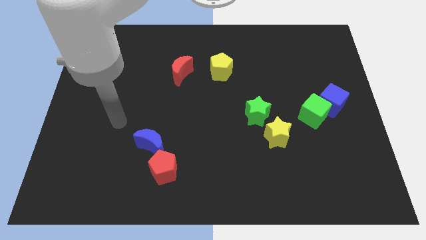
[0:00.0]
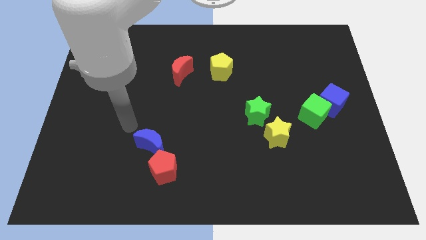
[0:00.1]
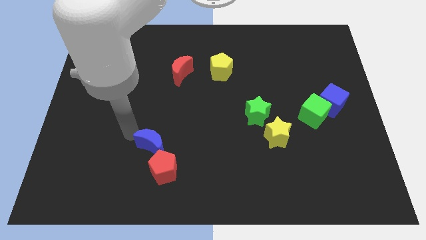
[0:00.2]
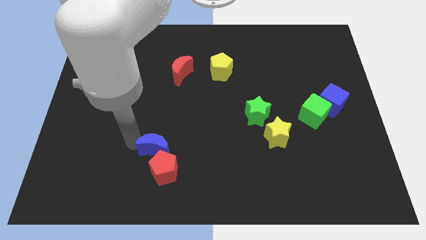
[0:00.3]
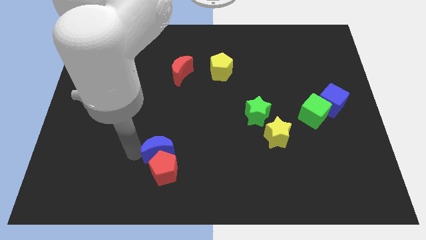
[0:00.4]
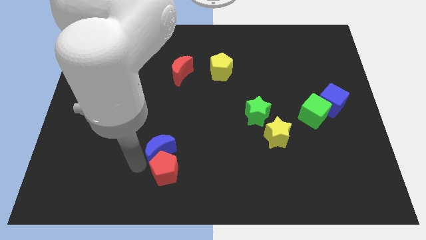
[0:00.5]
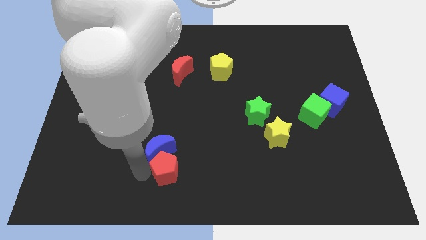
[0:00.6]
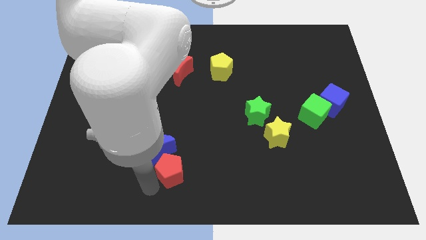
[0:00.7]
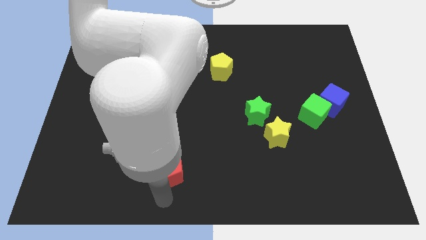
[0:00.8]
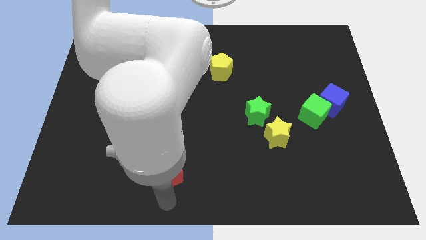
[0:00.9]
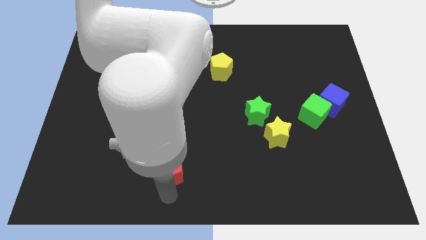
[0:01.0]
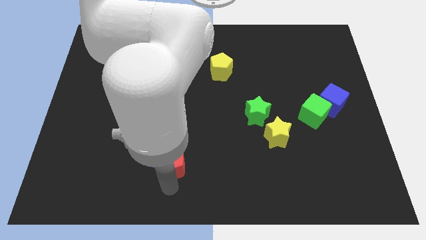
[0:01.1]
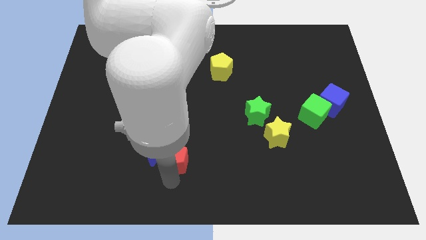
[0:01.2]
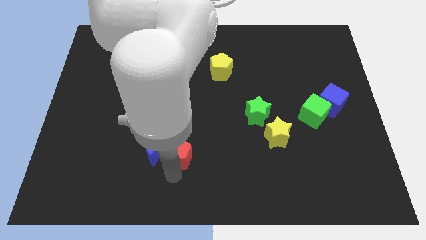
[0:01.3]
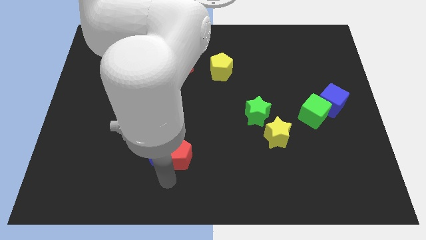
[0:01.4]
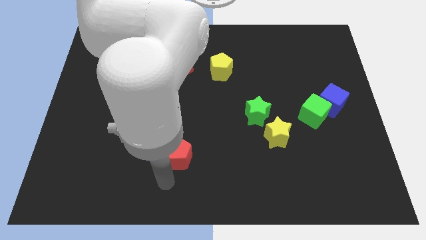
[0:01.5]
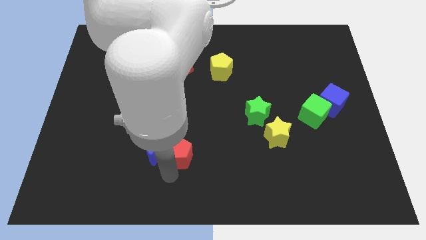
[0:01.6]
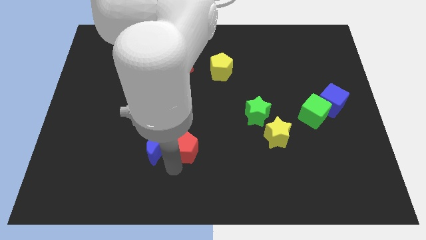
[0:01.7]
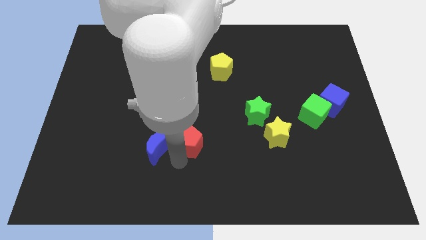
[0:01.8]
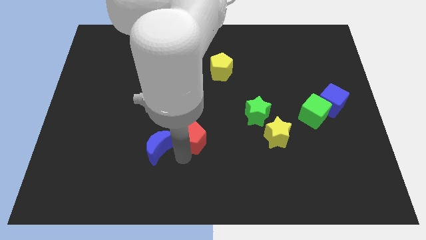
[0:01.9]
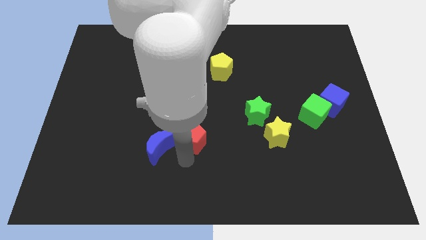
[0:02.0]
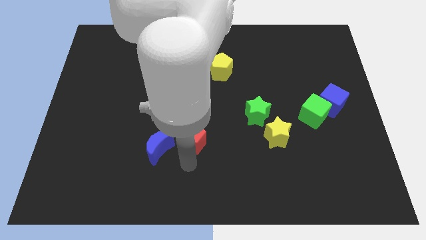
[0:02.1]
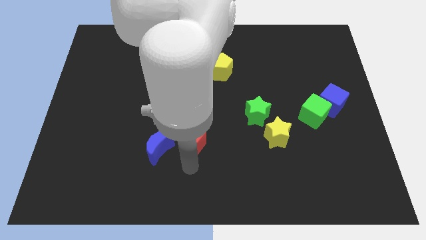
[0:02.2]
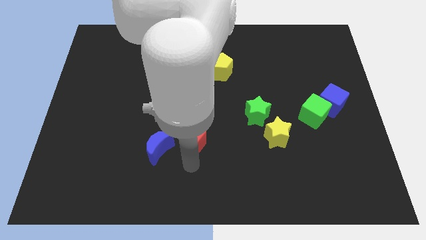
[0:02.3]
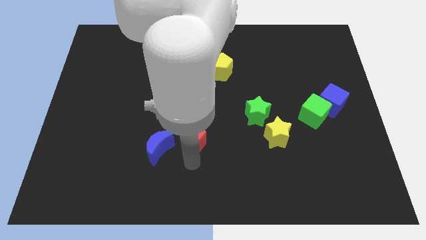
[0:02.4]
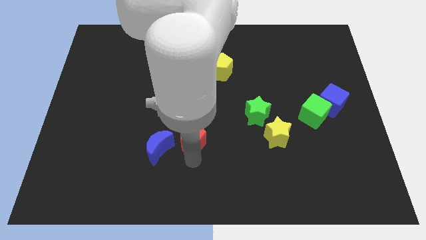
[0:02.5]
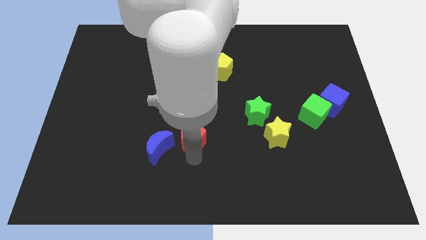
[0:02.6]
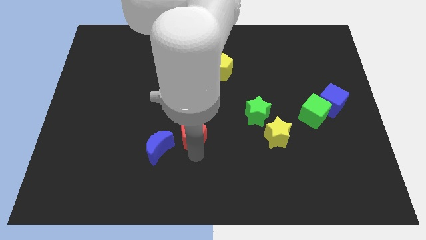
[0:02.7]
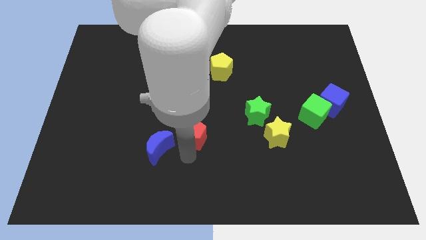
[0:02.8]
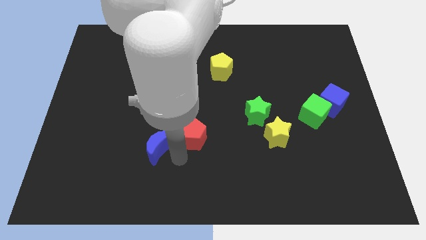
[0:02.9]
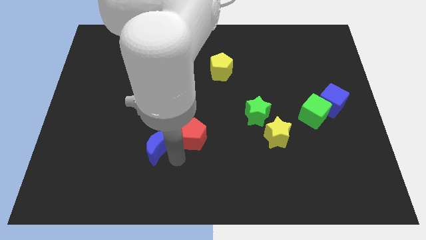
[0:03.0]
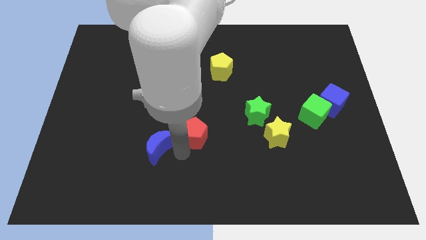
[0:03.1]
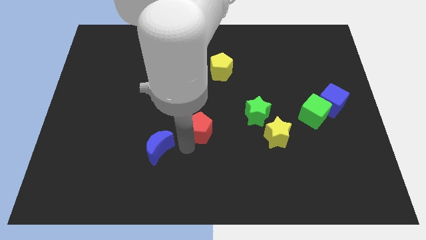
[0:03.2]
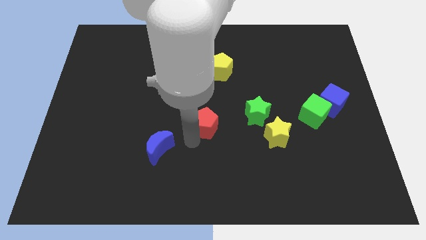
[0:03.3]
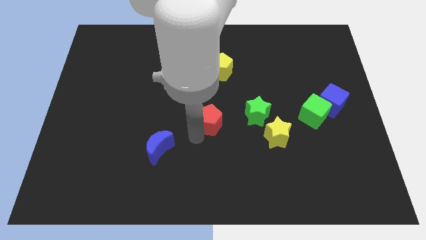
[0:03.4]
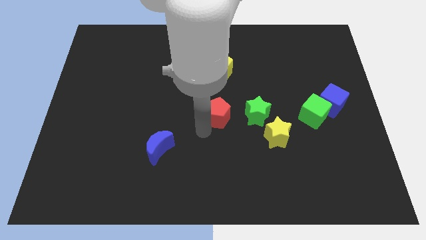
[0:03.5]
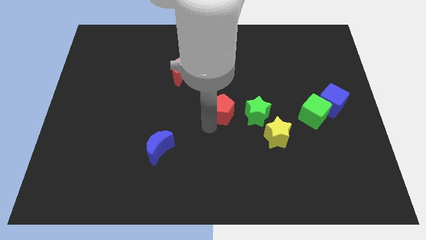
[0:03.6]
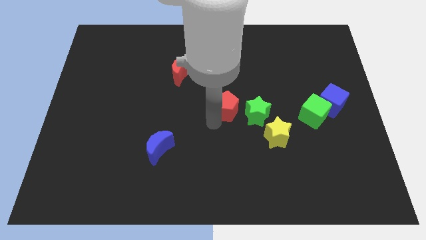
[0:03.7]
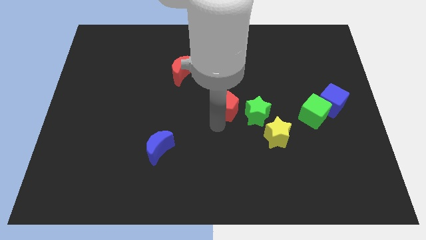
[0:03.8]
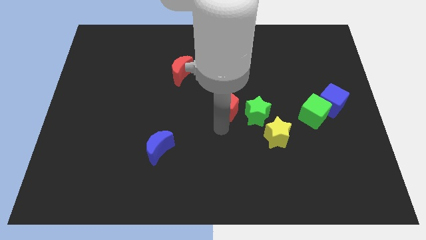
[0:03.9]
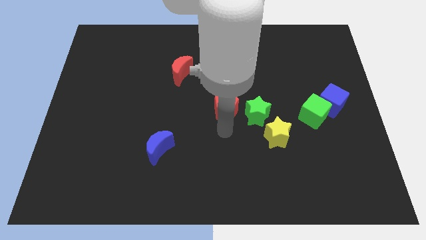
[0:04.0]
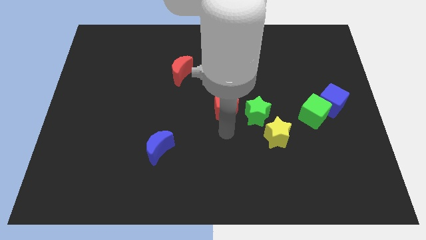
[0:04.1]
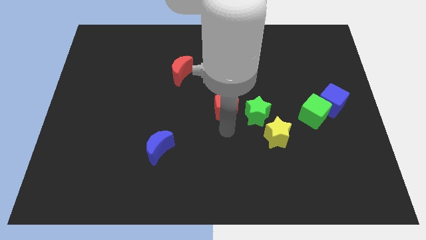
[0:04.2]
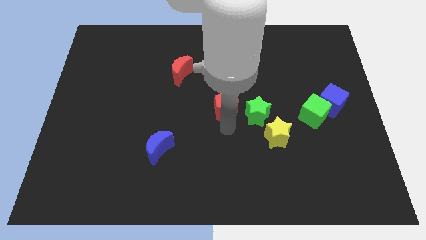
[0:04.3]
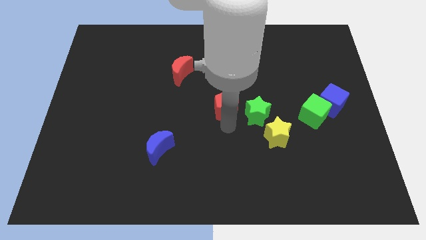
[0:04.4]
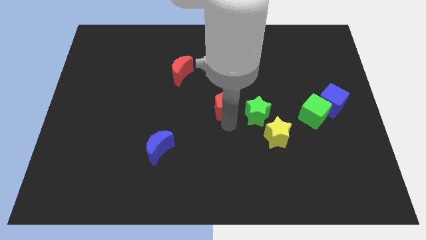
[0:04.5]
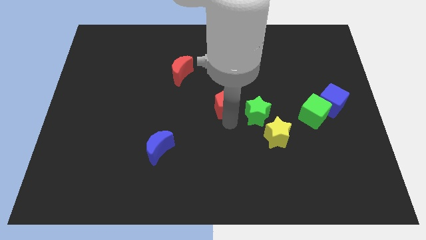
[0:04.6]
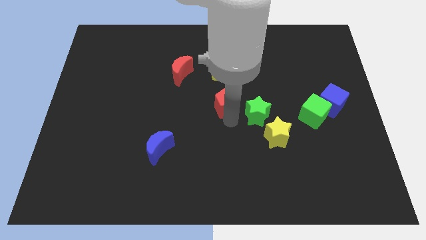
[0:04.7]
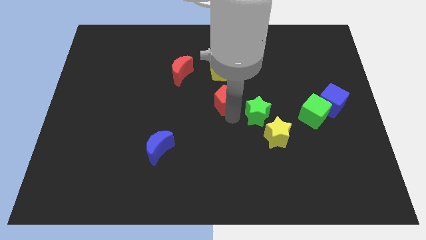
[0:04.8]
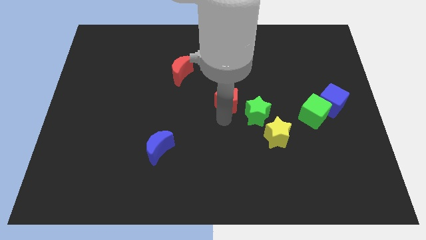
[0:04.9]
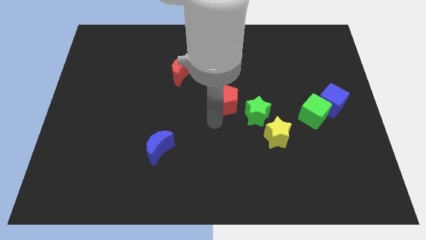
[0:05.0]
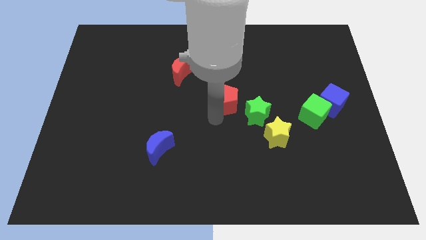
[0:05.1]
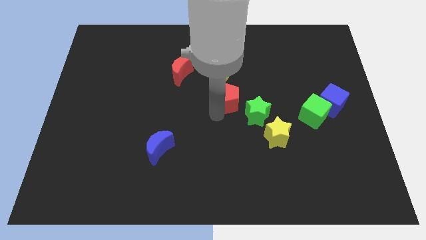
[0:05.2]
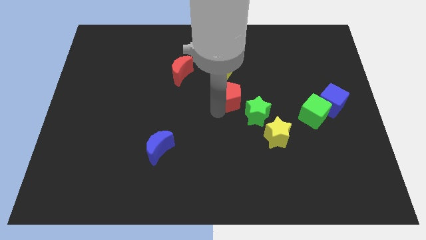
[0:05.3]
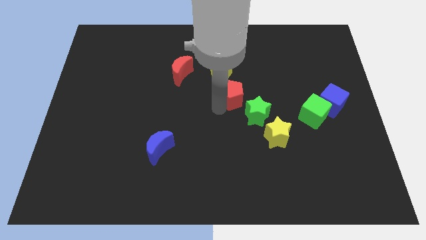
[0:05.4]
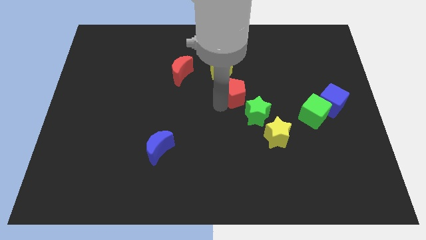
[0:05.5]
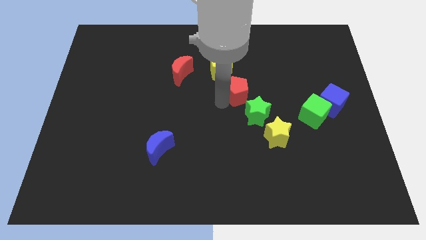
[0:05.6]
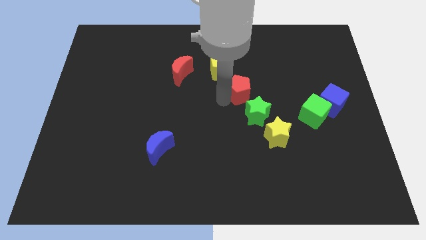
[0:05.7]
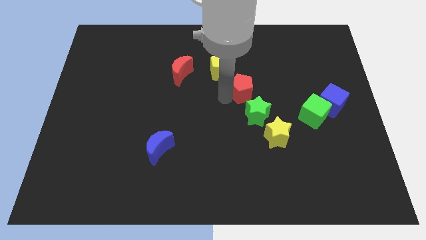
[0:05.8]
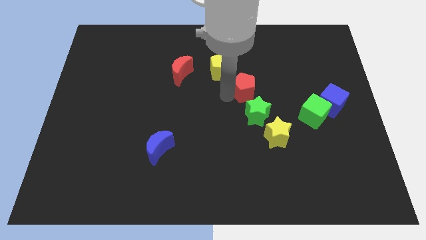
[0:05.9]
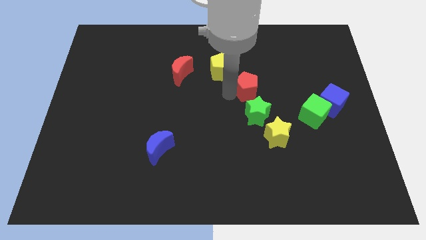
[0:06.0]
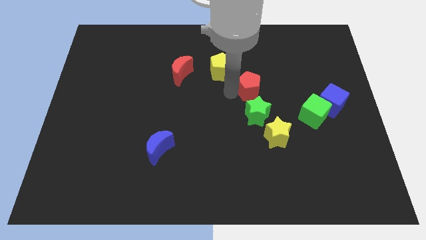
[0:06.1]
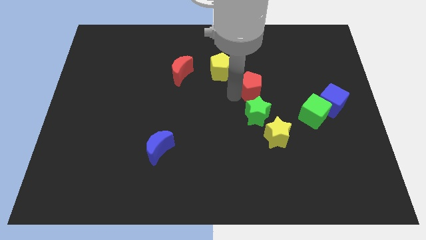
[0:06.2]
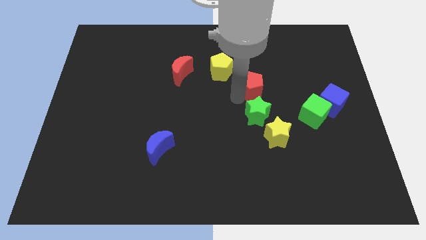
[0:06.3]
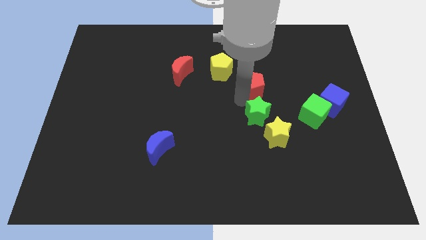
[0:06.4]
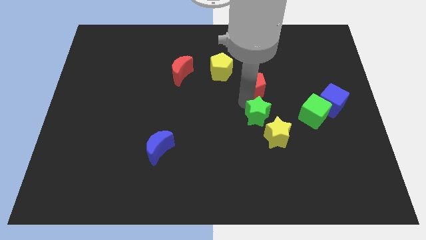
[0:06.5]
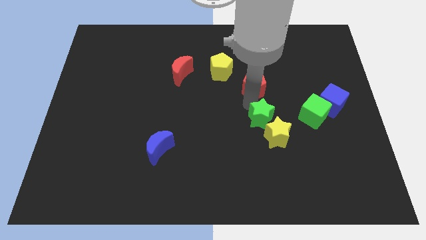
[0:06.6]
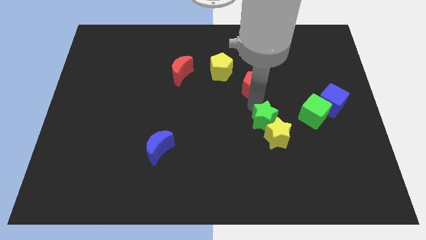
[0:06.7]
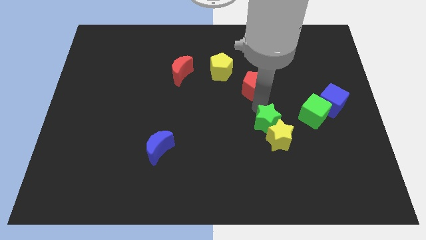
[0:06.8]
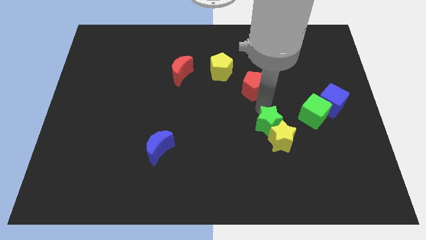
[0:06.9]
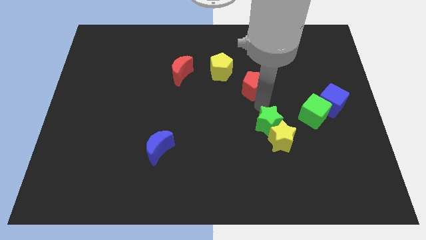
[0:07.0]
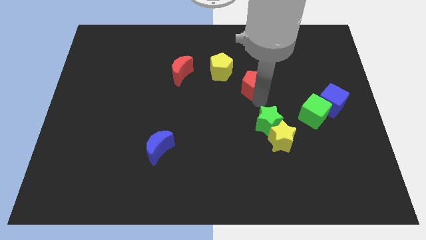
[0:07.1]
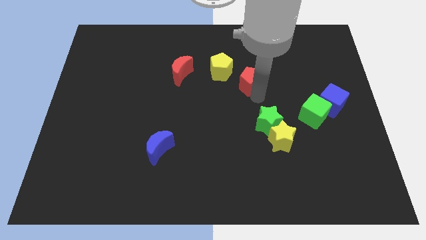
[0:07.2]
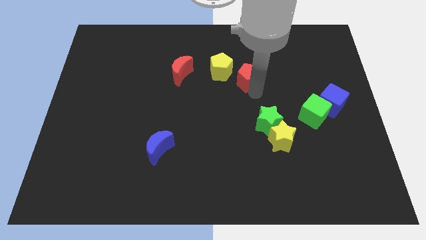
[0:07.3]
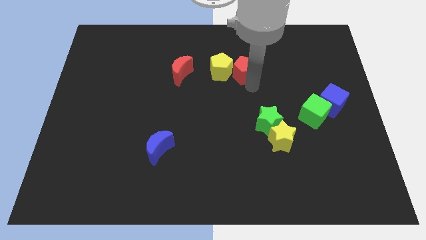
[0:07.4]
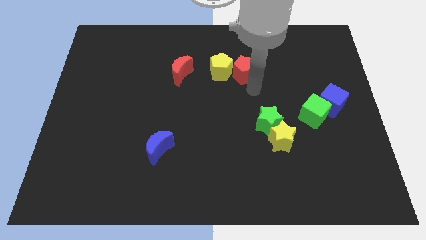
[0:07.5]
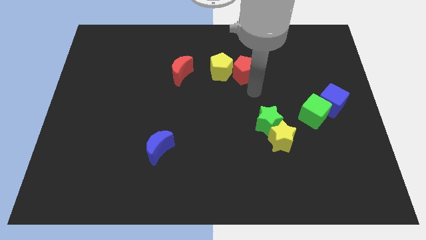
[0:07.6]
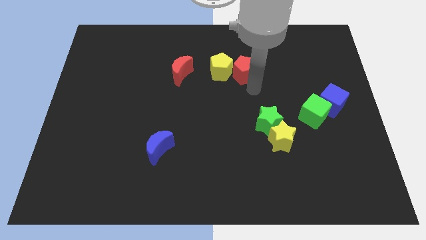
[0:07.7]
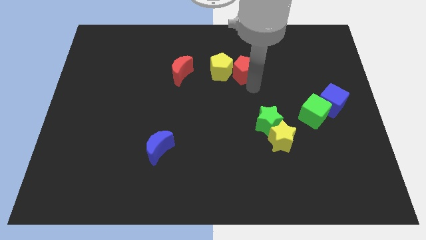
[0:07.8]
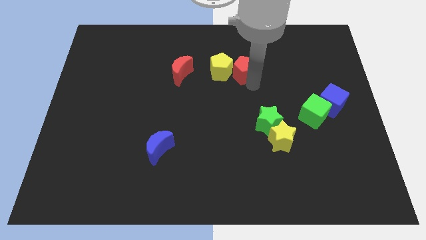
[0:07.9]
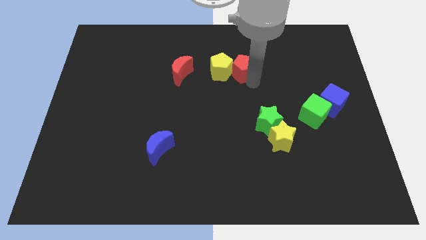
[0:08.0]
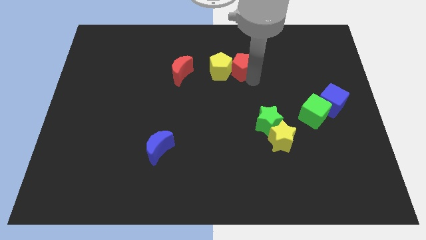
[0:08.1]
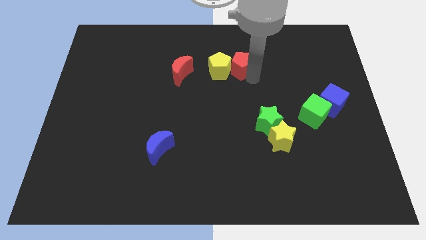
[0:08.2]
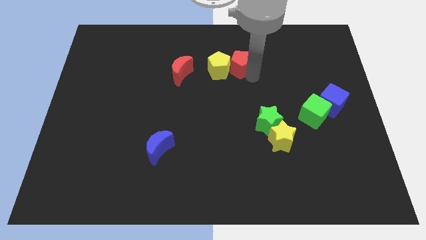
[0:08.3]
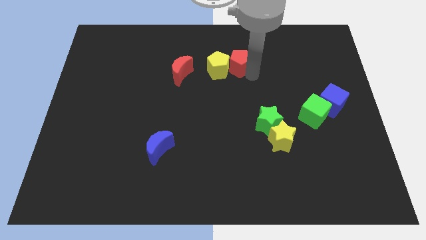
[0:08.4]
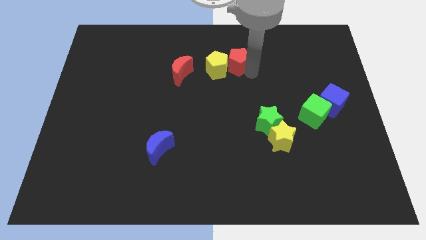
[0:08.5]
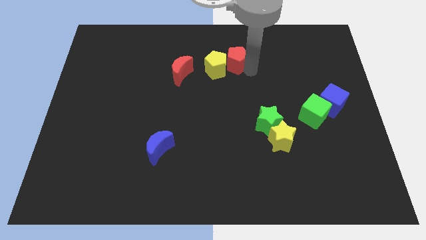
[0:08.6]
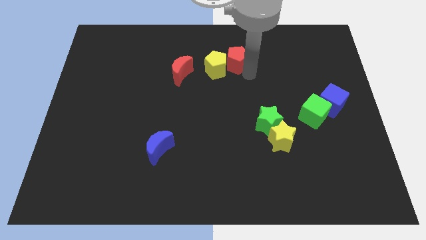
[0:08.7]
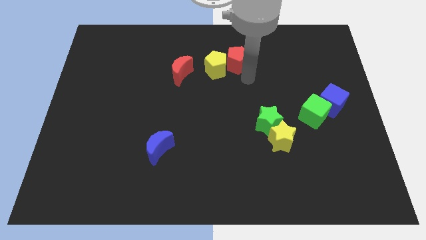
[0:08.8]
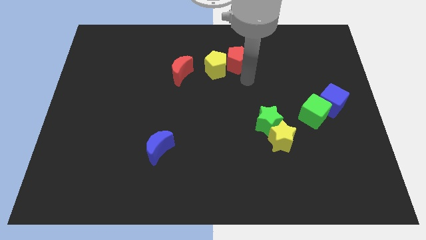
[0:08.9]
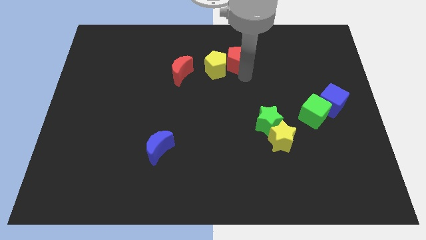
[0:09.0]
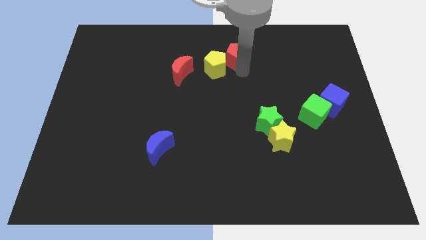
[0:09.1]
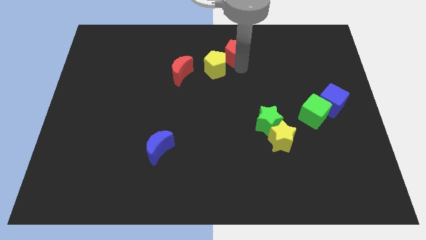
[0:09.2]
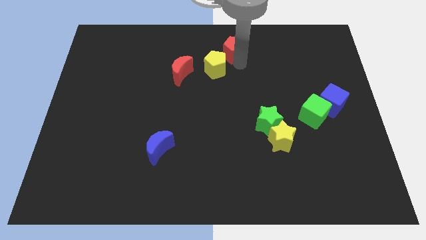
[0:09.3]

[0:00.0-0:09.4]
slide the red pentagon to the top side
